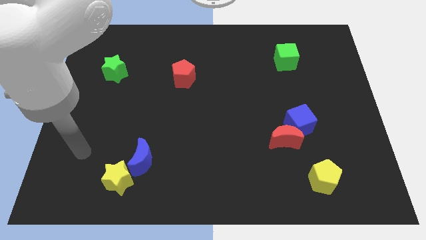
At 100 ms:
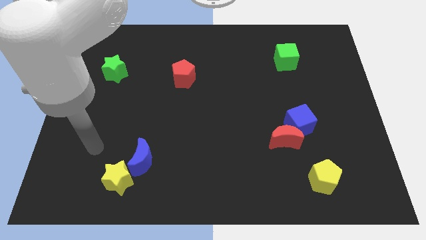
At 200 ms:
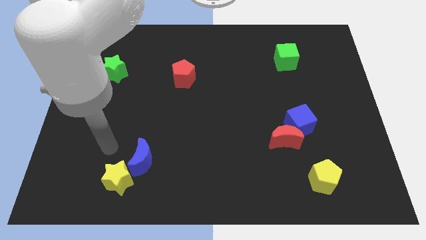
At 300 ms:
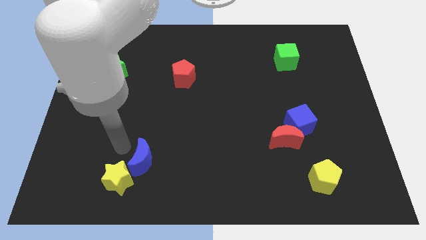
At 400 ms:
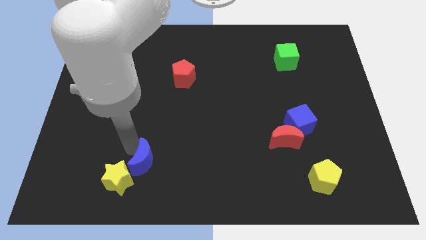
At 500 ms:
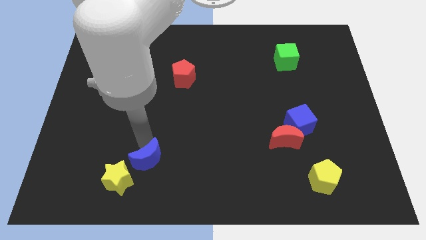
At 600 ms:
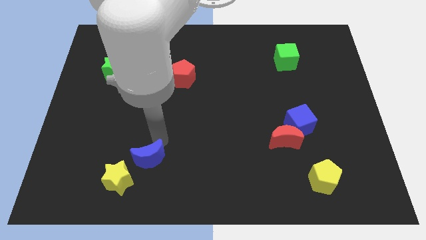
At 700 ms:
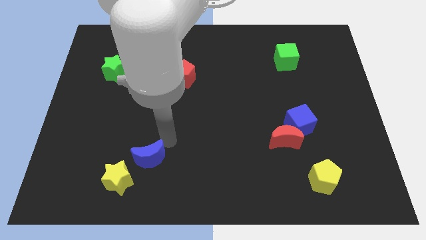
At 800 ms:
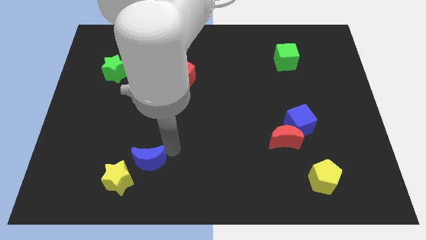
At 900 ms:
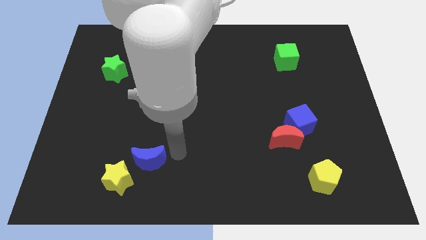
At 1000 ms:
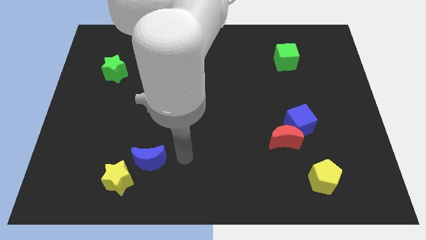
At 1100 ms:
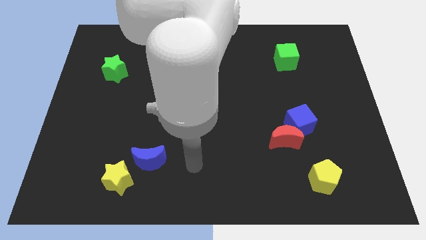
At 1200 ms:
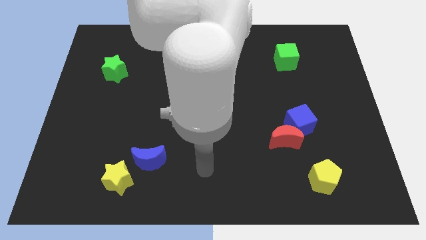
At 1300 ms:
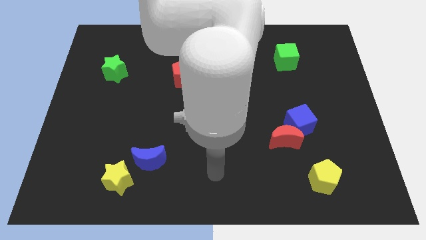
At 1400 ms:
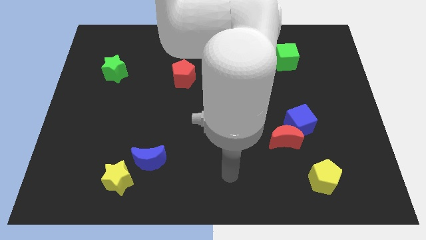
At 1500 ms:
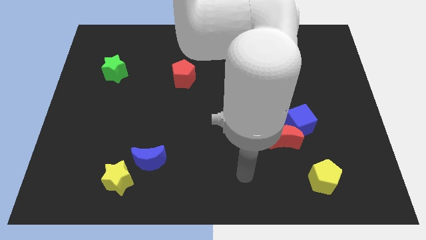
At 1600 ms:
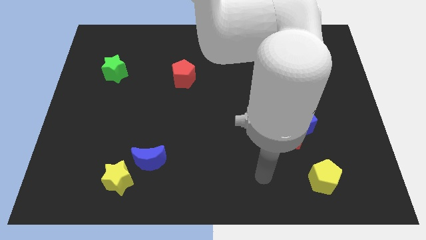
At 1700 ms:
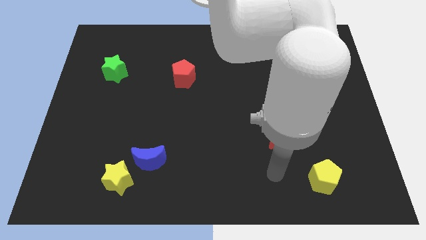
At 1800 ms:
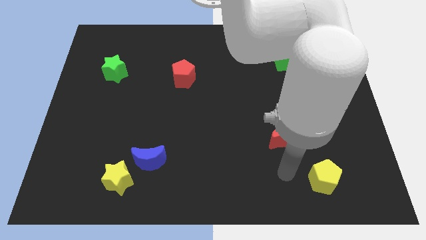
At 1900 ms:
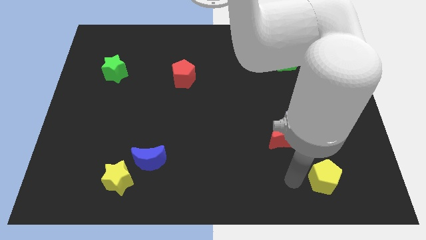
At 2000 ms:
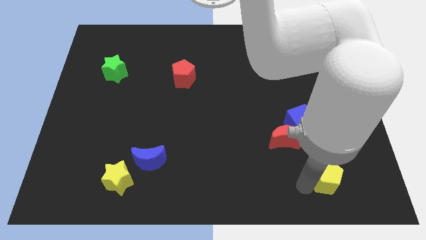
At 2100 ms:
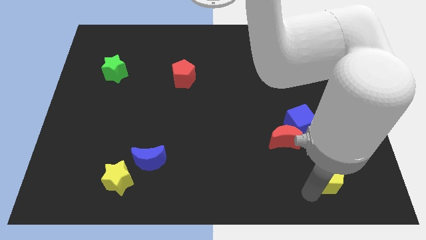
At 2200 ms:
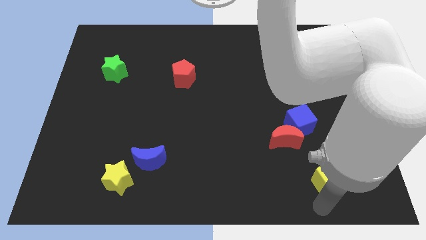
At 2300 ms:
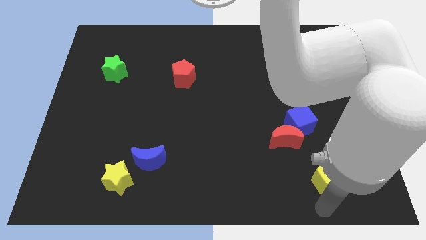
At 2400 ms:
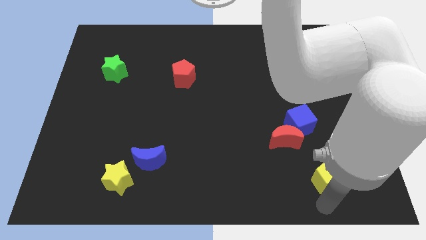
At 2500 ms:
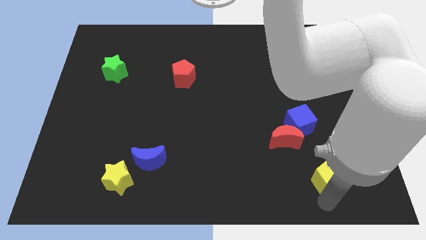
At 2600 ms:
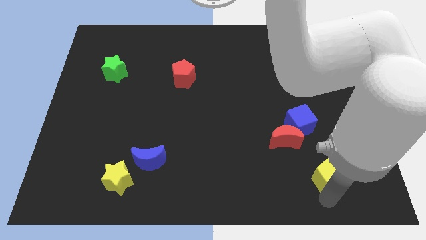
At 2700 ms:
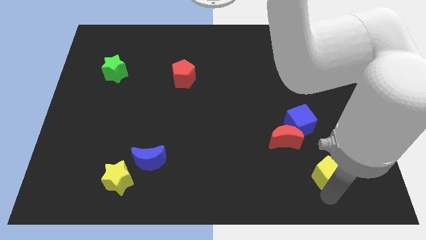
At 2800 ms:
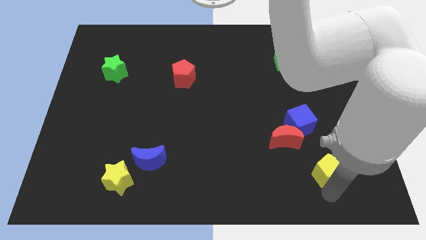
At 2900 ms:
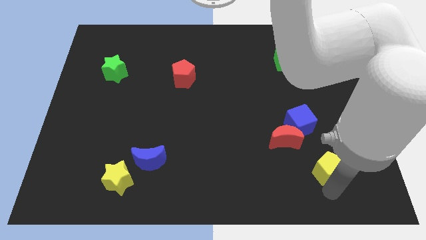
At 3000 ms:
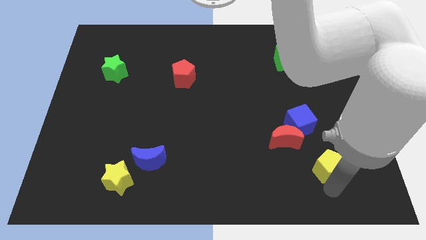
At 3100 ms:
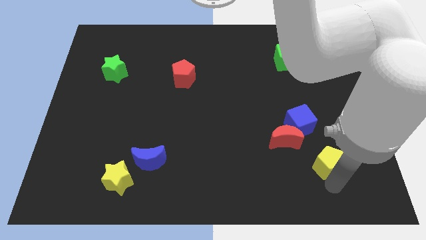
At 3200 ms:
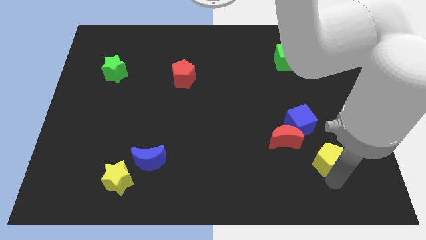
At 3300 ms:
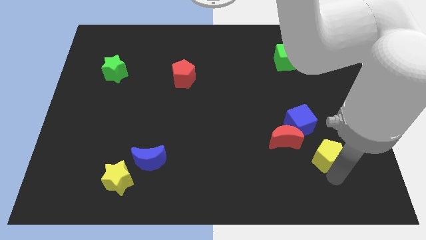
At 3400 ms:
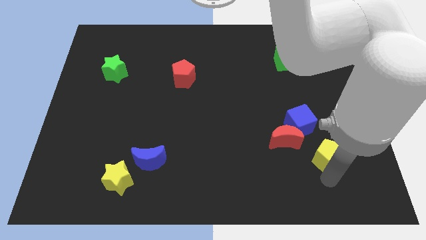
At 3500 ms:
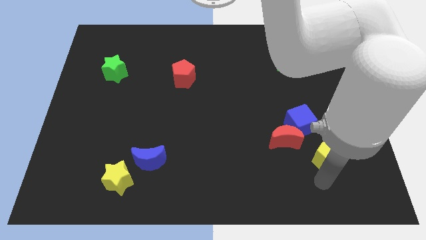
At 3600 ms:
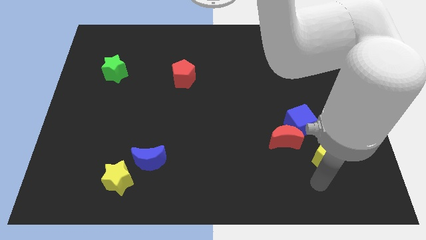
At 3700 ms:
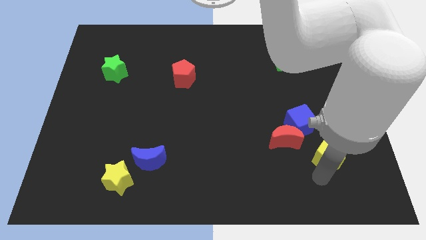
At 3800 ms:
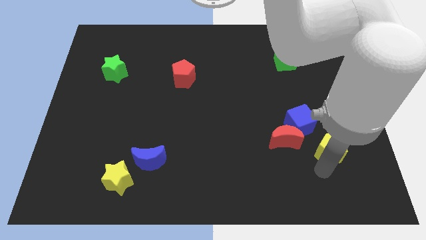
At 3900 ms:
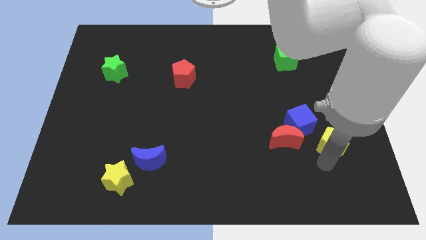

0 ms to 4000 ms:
slightly slide the yellow pentagon up

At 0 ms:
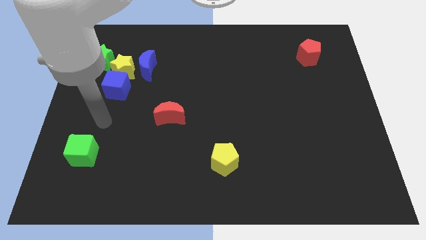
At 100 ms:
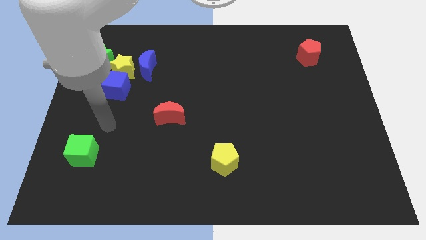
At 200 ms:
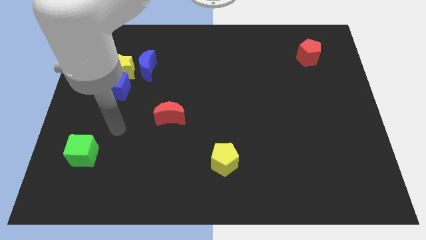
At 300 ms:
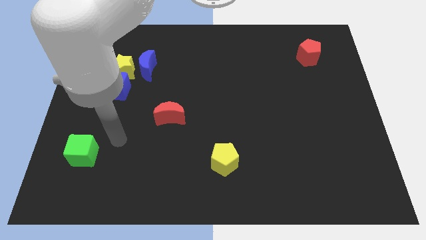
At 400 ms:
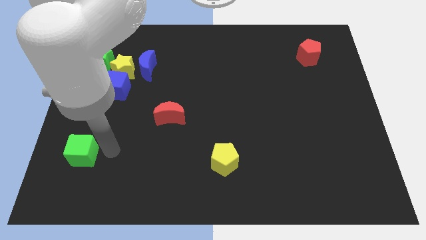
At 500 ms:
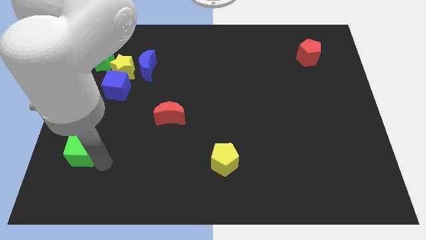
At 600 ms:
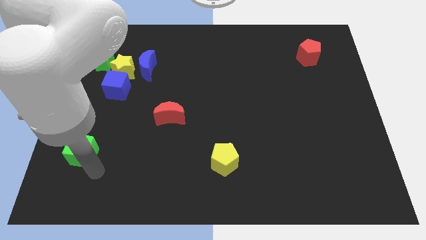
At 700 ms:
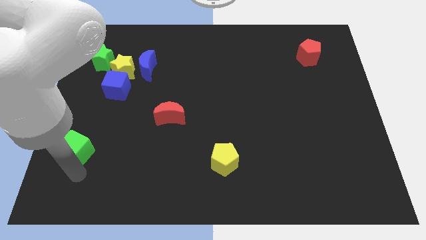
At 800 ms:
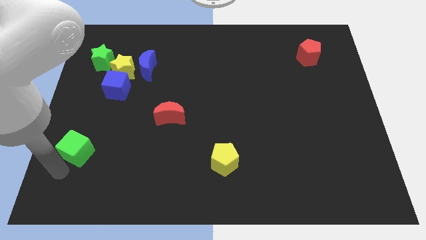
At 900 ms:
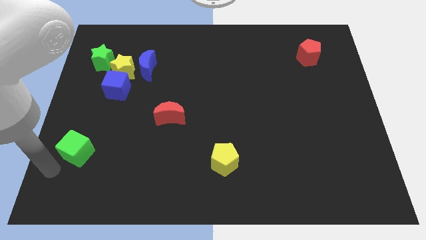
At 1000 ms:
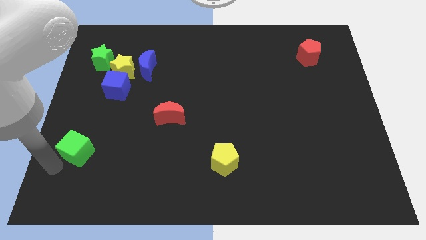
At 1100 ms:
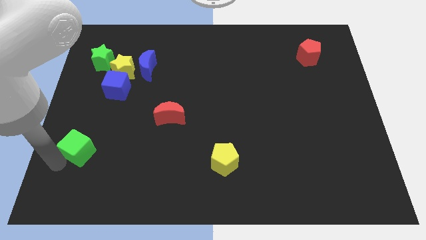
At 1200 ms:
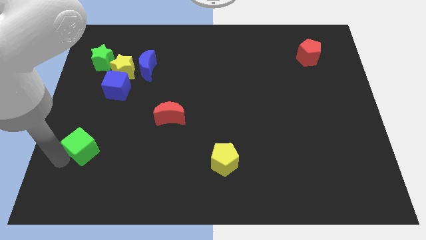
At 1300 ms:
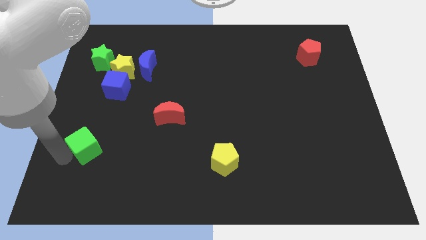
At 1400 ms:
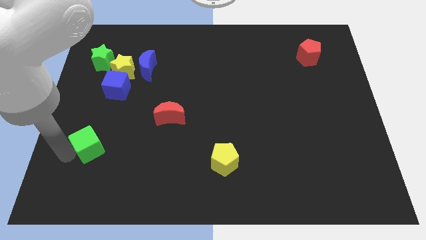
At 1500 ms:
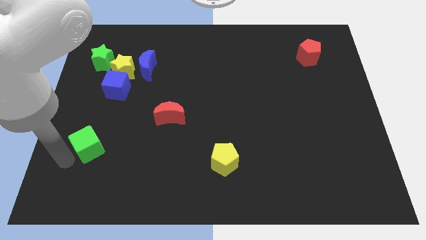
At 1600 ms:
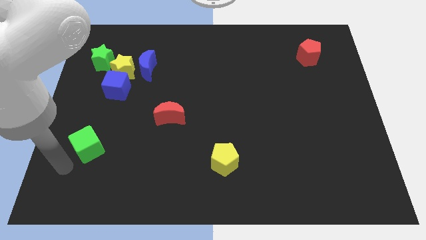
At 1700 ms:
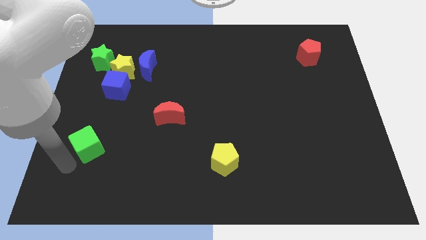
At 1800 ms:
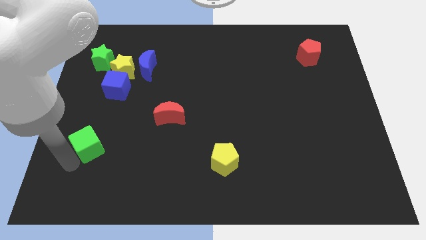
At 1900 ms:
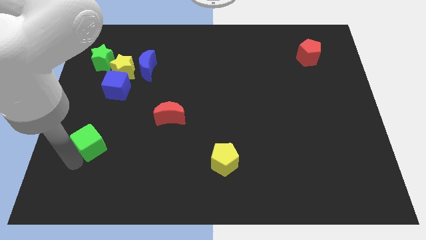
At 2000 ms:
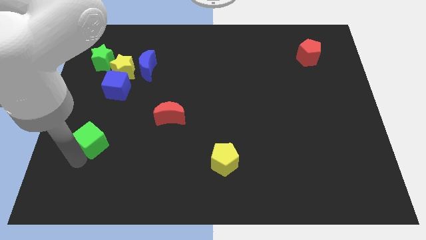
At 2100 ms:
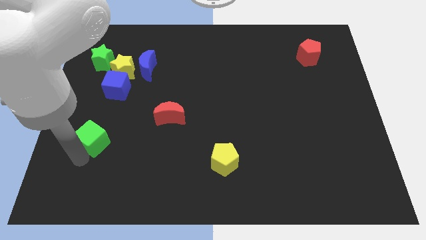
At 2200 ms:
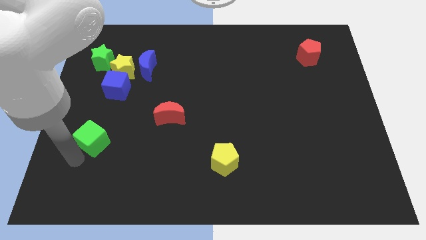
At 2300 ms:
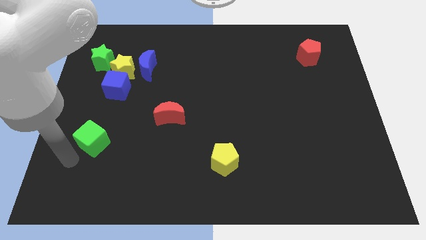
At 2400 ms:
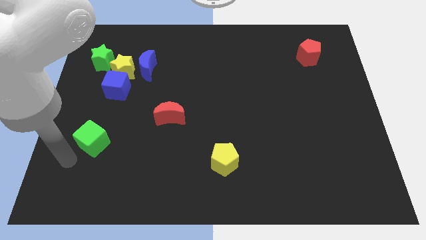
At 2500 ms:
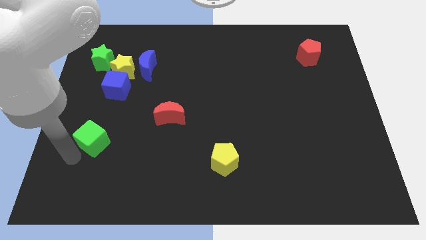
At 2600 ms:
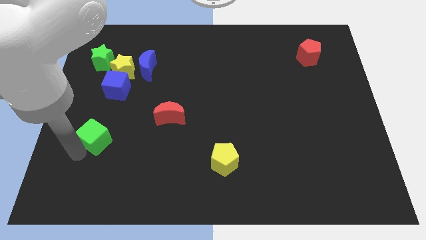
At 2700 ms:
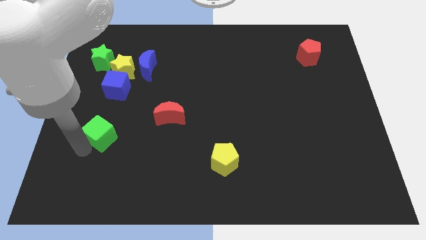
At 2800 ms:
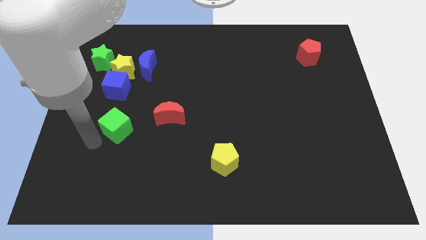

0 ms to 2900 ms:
push the green cube slightly diagonally up and to the right

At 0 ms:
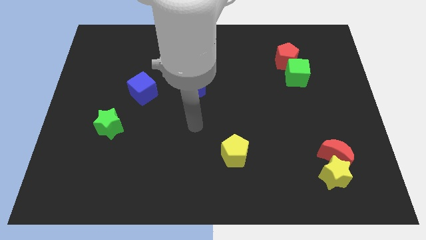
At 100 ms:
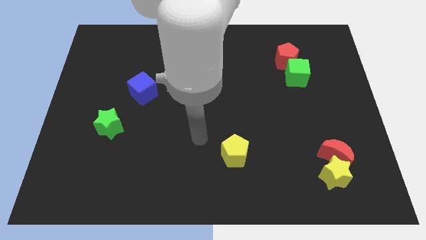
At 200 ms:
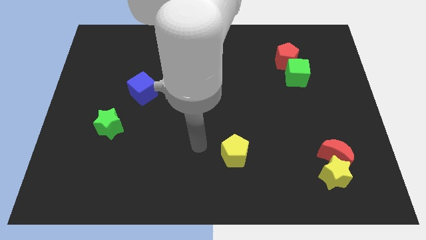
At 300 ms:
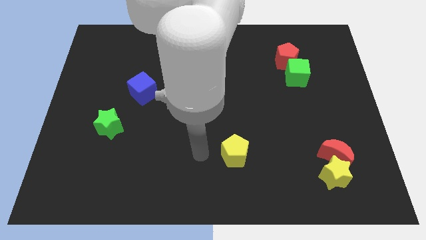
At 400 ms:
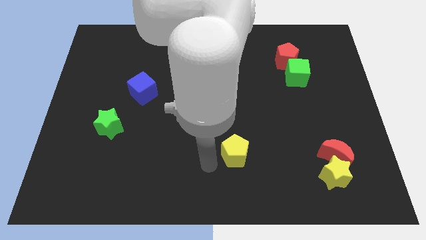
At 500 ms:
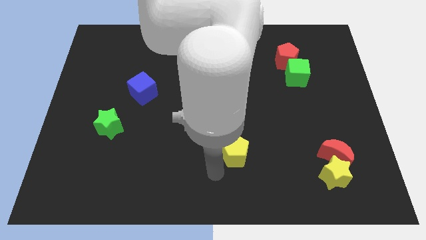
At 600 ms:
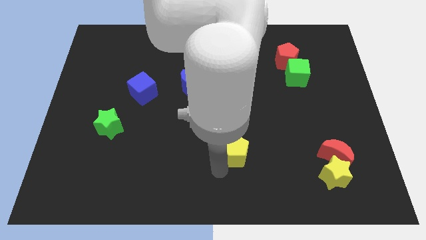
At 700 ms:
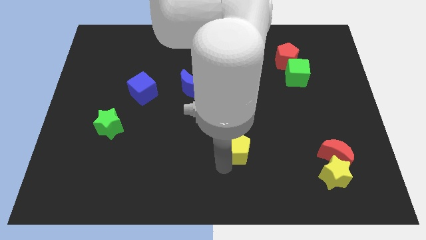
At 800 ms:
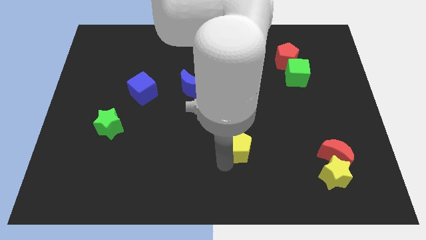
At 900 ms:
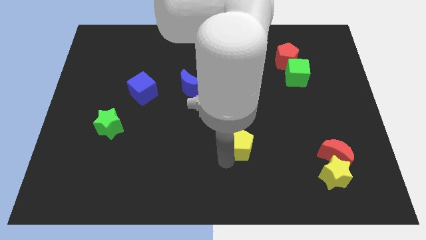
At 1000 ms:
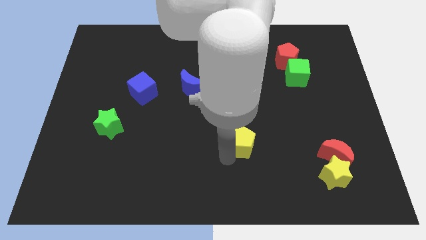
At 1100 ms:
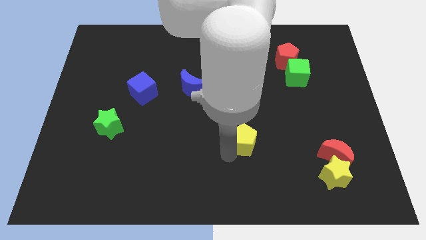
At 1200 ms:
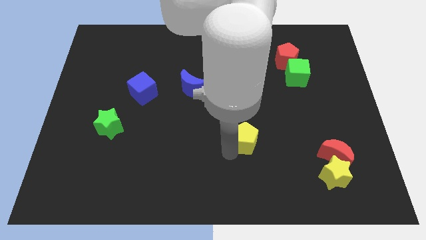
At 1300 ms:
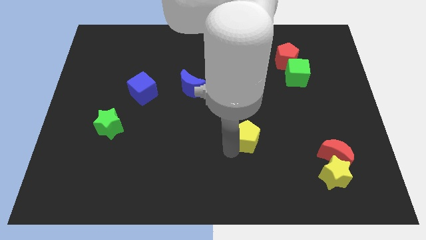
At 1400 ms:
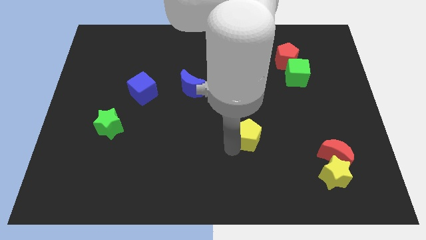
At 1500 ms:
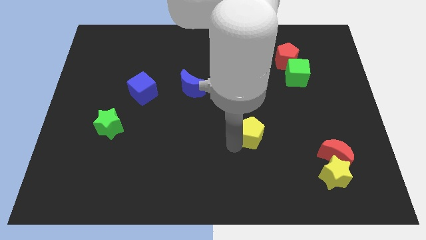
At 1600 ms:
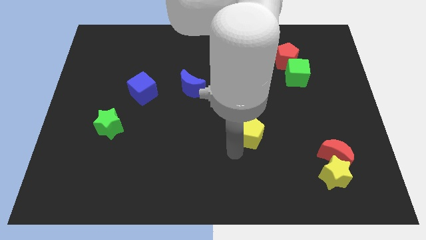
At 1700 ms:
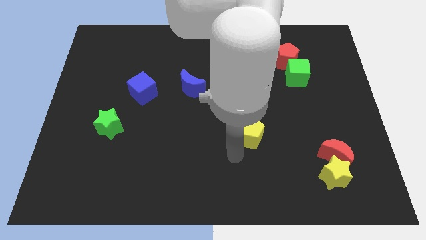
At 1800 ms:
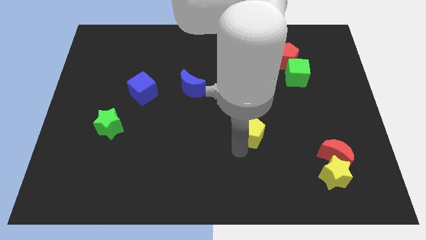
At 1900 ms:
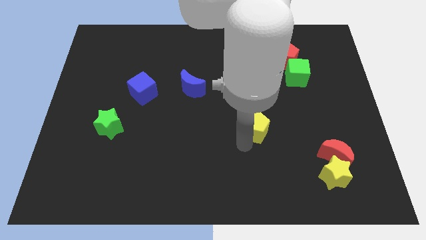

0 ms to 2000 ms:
slightly slide the yellow pentagon upwards and right
